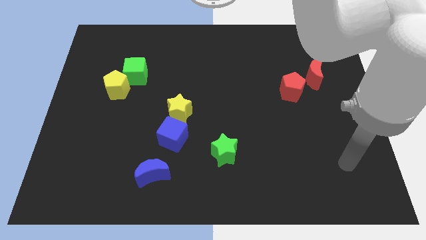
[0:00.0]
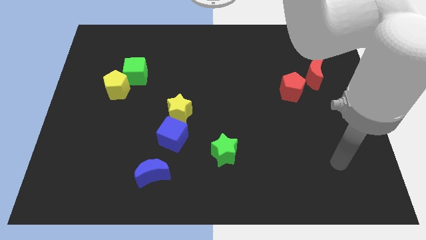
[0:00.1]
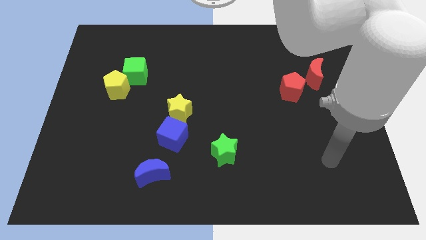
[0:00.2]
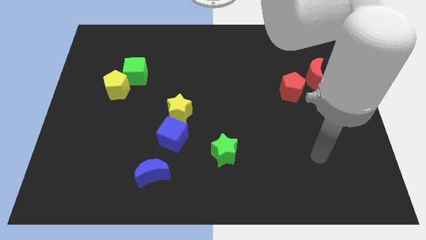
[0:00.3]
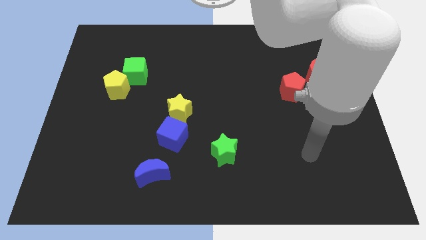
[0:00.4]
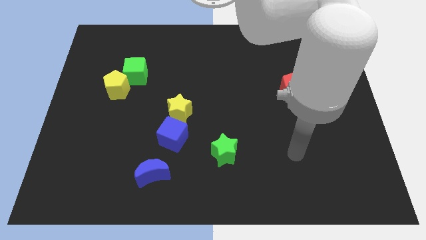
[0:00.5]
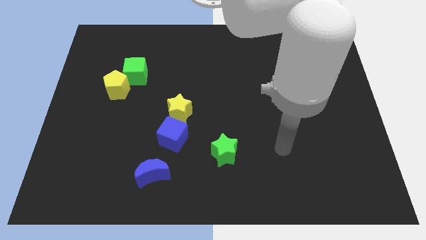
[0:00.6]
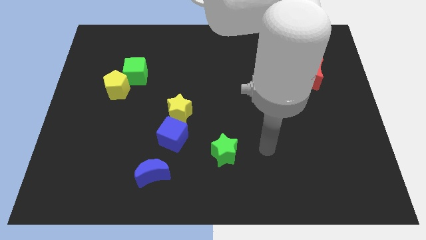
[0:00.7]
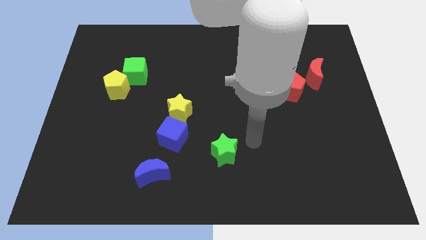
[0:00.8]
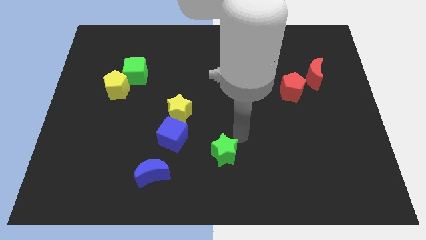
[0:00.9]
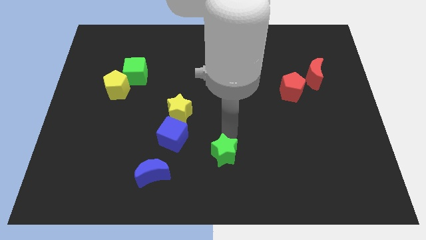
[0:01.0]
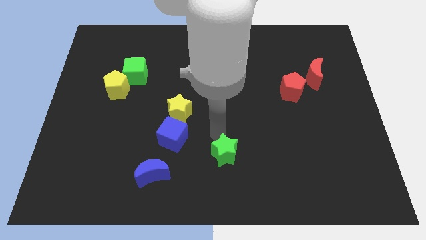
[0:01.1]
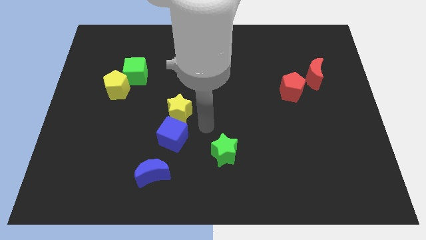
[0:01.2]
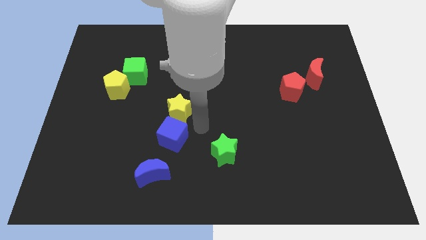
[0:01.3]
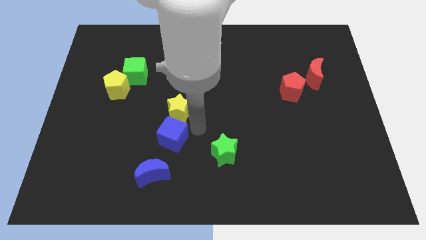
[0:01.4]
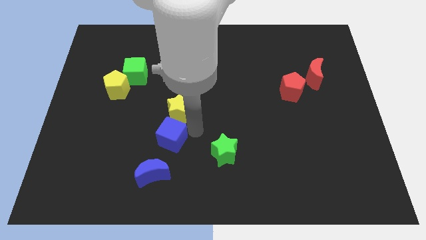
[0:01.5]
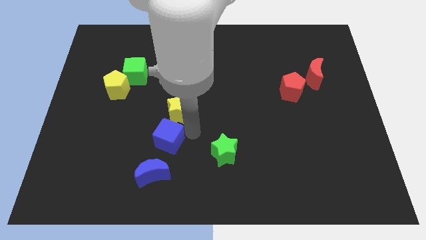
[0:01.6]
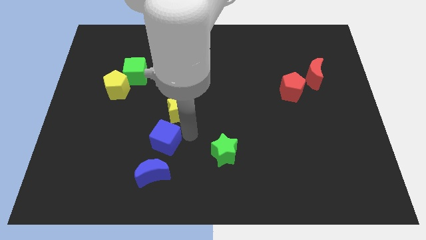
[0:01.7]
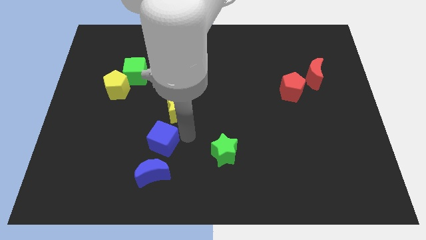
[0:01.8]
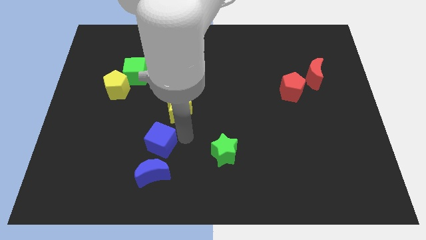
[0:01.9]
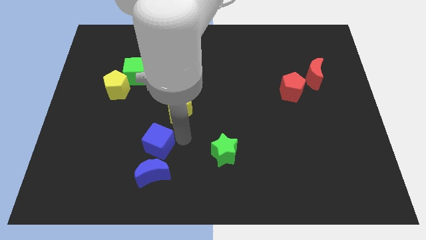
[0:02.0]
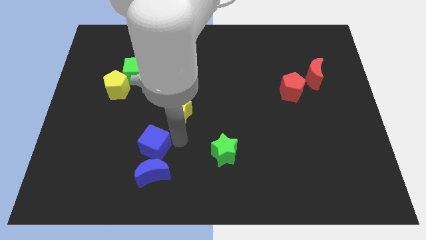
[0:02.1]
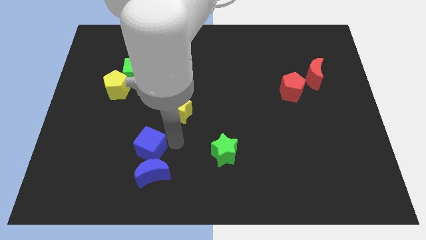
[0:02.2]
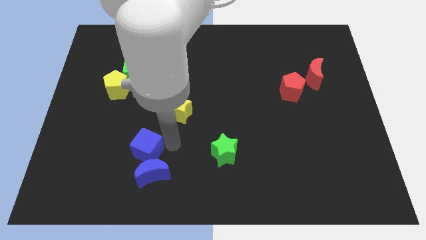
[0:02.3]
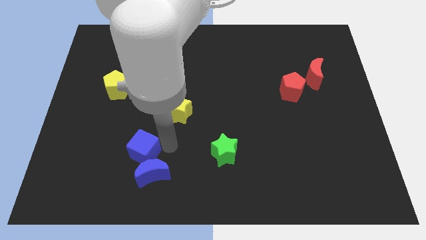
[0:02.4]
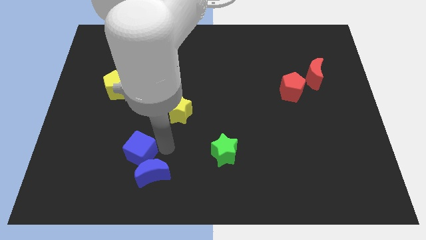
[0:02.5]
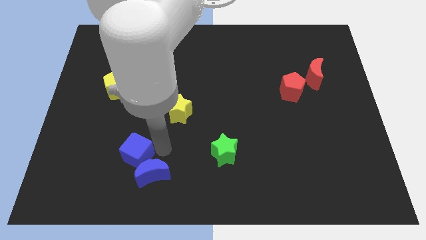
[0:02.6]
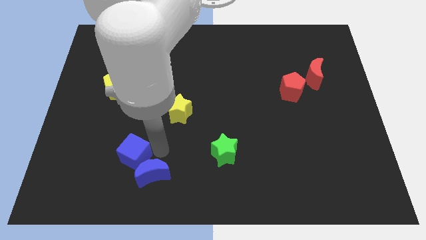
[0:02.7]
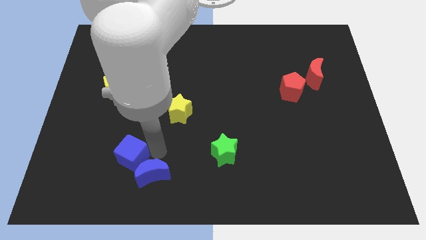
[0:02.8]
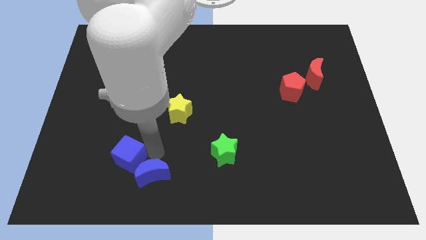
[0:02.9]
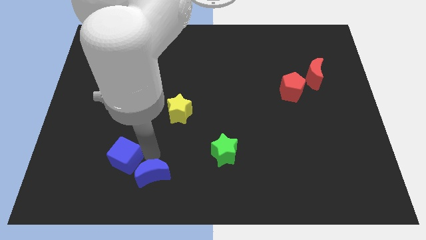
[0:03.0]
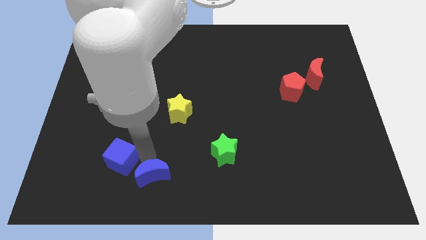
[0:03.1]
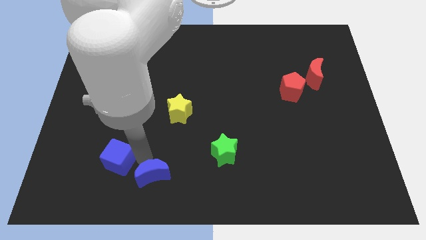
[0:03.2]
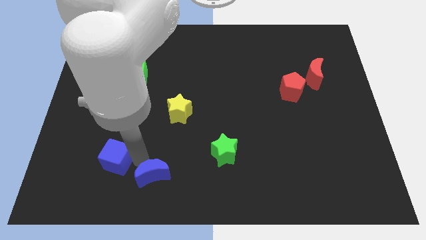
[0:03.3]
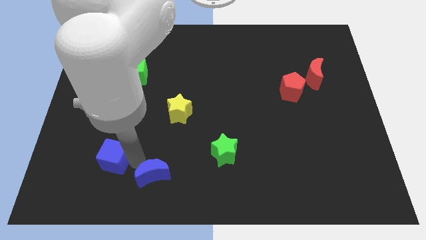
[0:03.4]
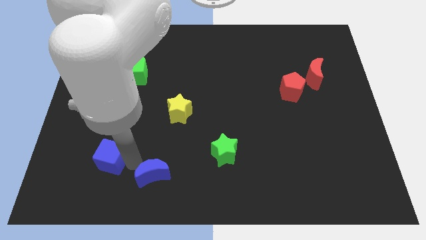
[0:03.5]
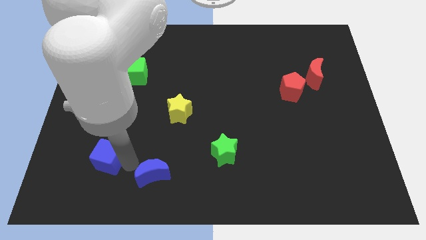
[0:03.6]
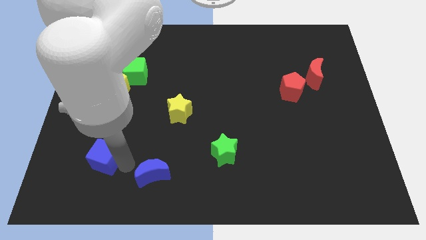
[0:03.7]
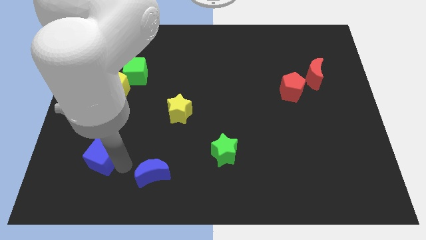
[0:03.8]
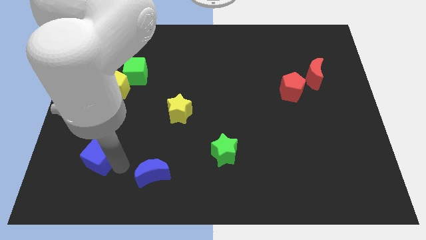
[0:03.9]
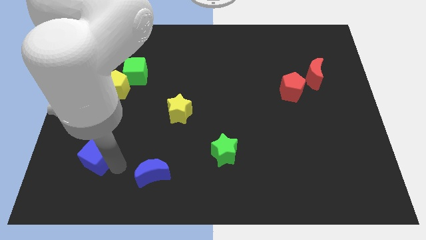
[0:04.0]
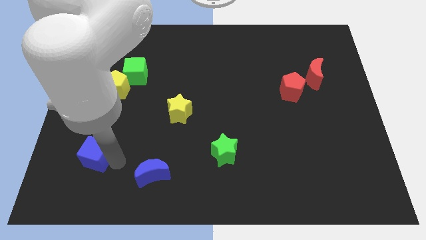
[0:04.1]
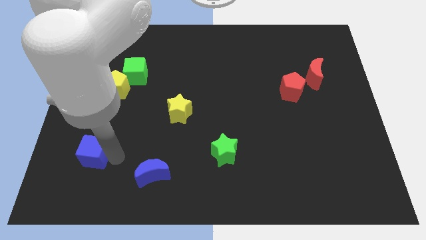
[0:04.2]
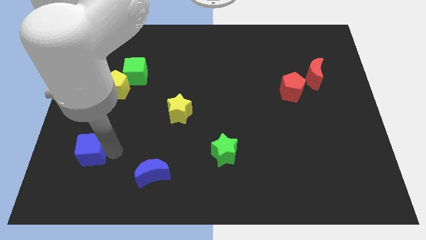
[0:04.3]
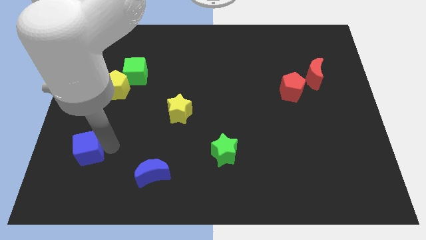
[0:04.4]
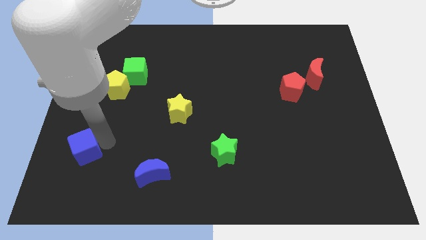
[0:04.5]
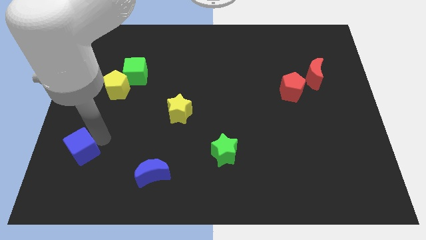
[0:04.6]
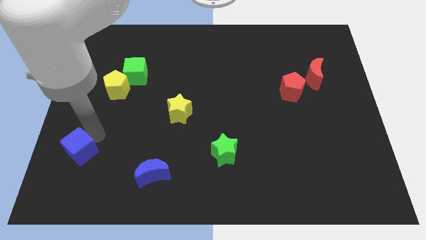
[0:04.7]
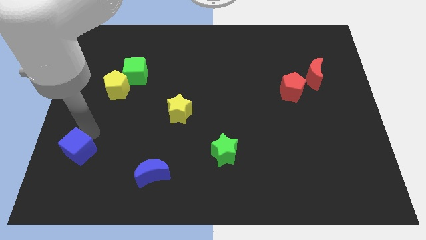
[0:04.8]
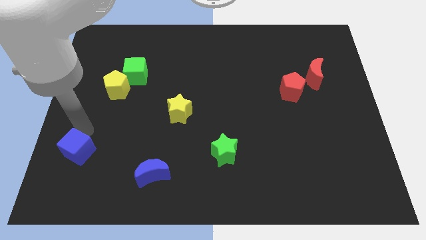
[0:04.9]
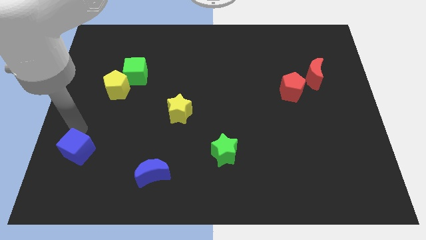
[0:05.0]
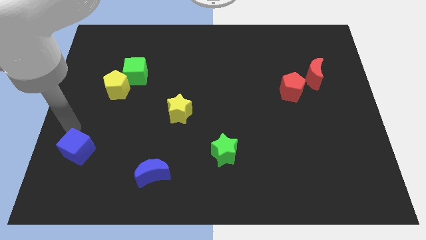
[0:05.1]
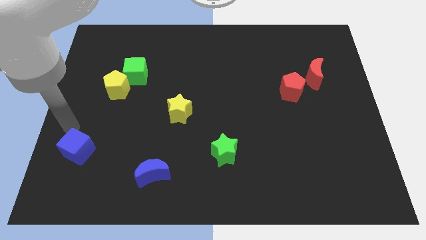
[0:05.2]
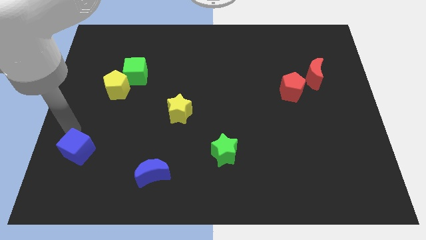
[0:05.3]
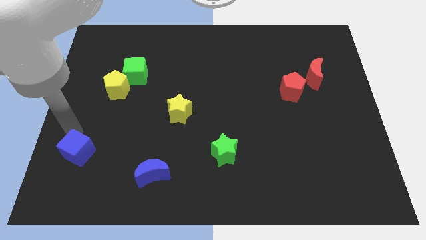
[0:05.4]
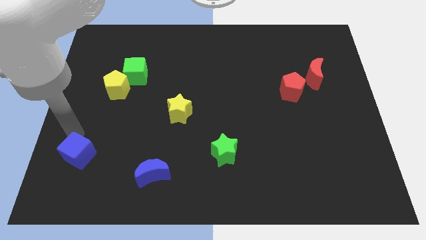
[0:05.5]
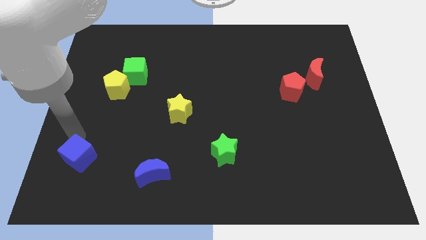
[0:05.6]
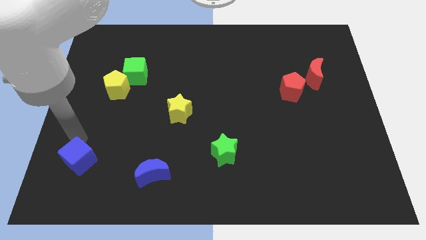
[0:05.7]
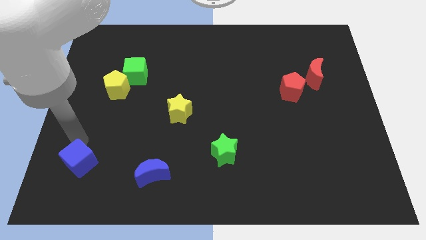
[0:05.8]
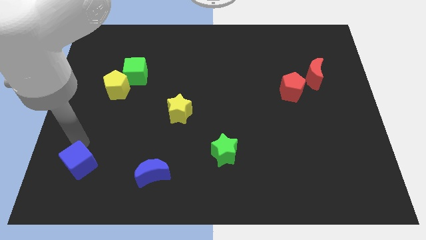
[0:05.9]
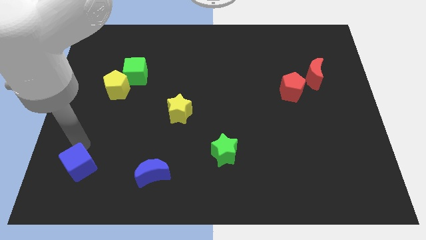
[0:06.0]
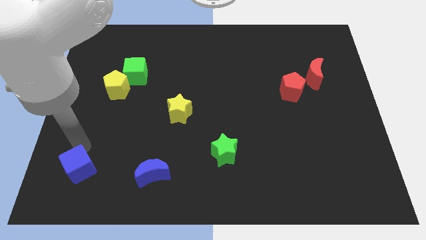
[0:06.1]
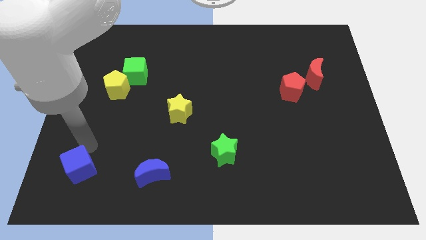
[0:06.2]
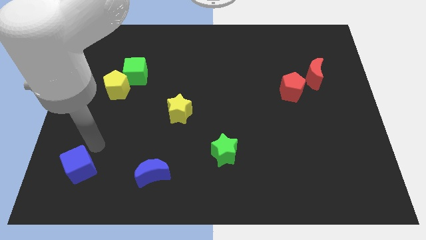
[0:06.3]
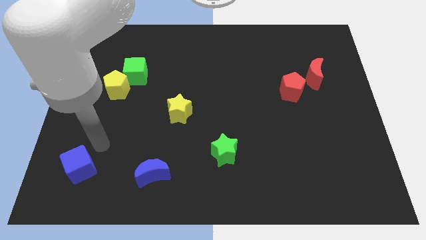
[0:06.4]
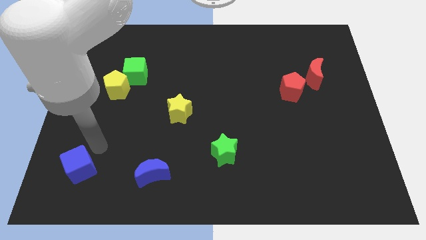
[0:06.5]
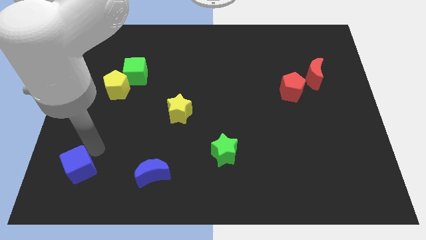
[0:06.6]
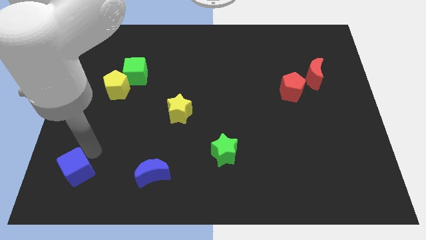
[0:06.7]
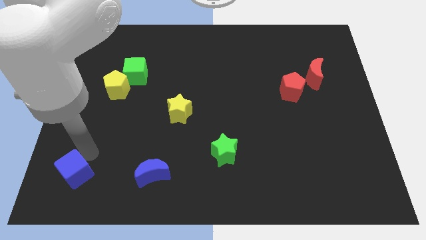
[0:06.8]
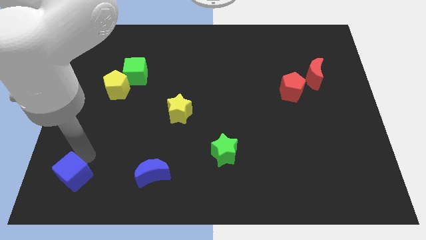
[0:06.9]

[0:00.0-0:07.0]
put the blue cube to the bottom left of the board
